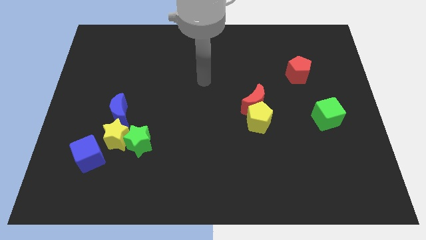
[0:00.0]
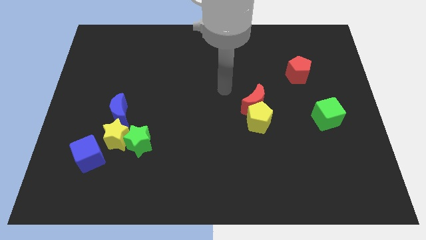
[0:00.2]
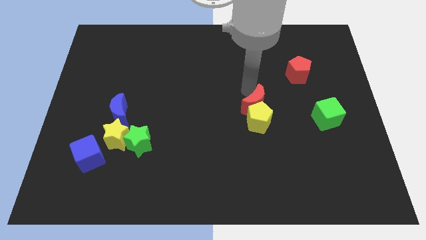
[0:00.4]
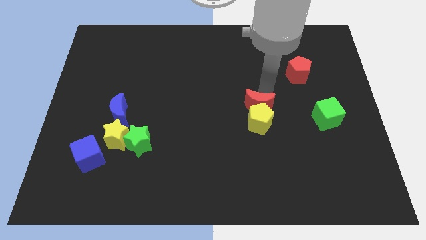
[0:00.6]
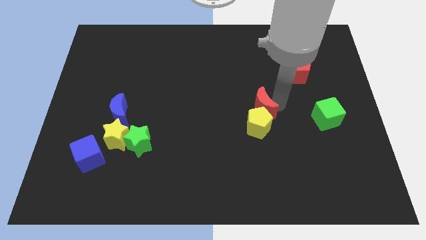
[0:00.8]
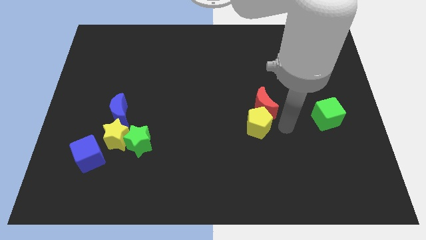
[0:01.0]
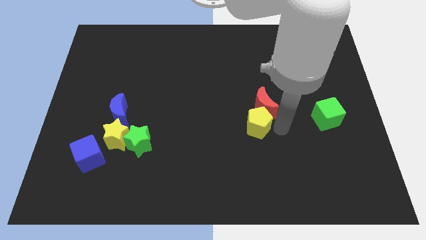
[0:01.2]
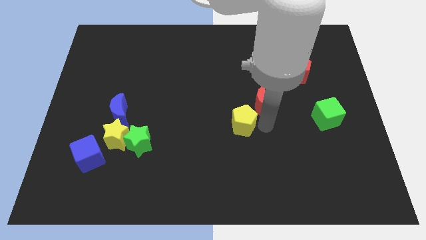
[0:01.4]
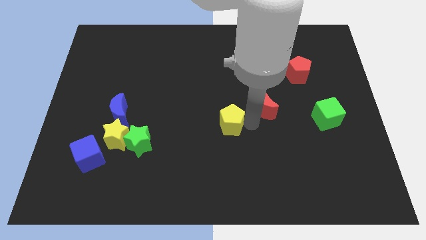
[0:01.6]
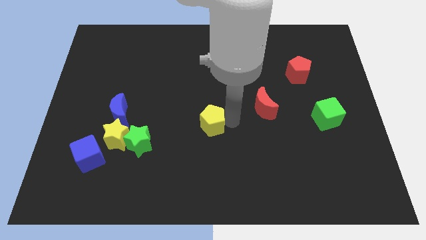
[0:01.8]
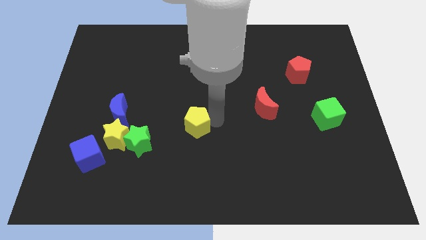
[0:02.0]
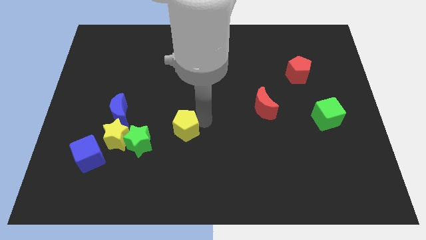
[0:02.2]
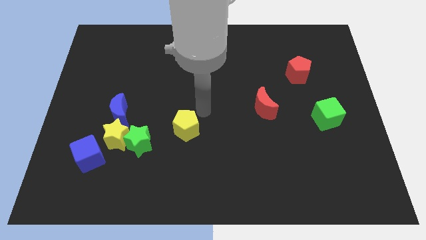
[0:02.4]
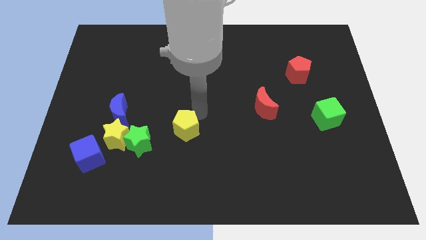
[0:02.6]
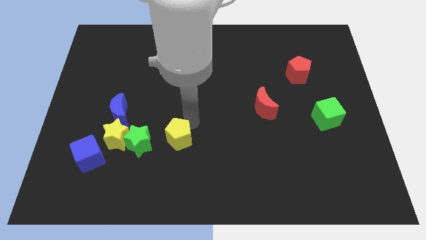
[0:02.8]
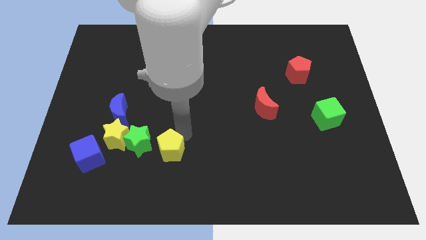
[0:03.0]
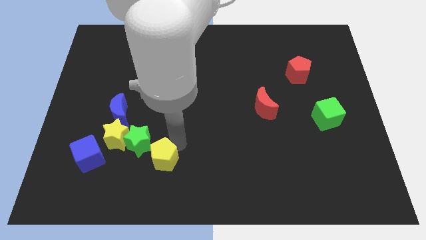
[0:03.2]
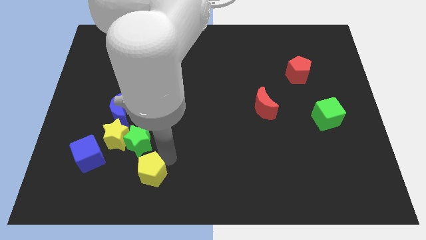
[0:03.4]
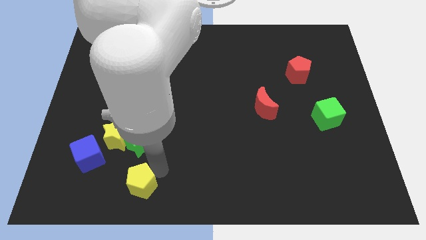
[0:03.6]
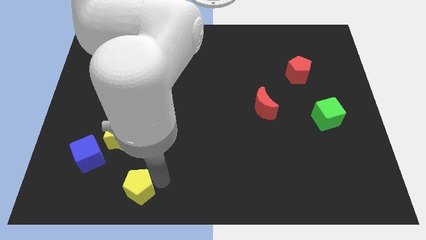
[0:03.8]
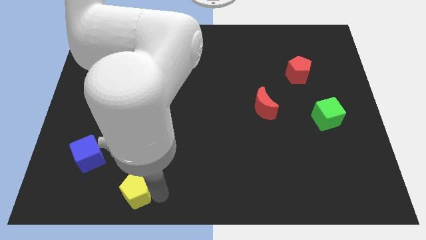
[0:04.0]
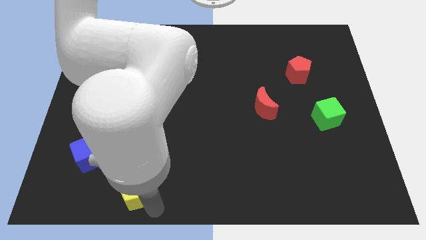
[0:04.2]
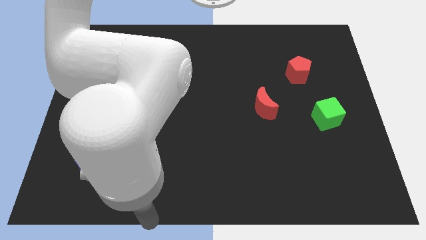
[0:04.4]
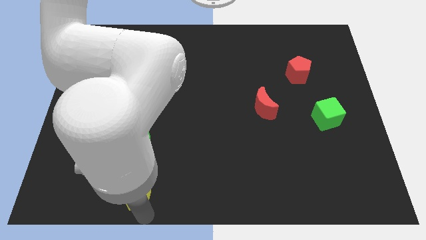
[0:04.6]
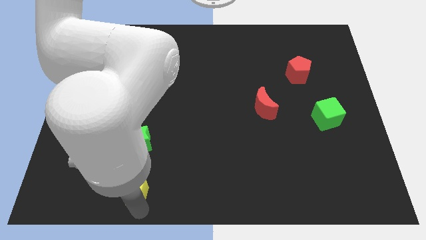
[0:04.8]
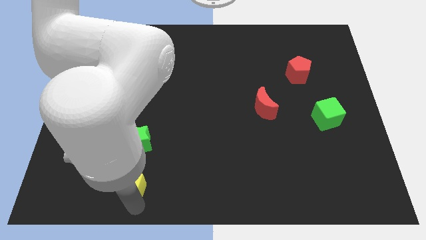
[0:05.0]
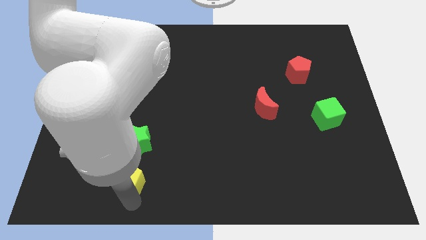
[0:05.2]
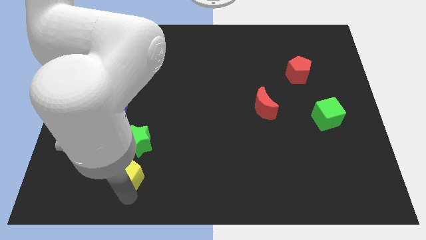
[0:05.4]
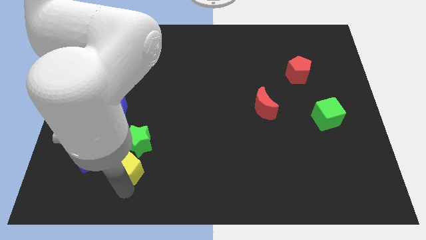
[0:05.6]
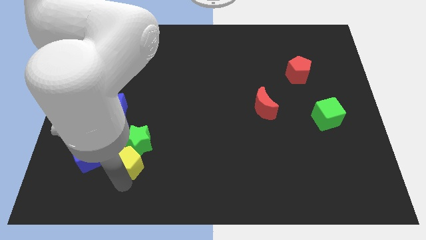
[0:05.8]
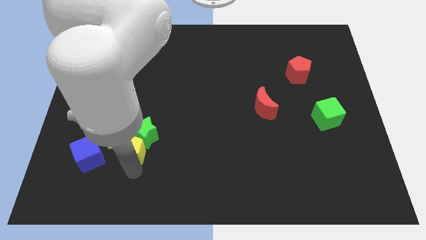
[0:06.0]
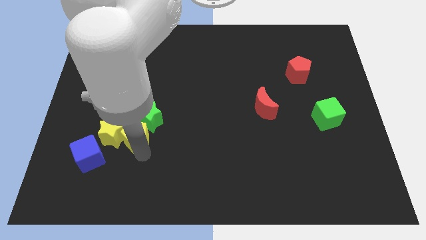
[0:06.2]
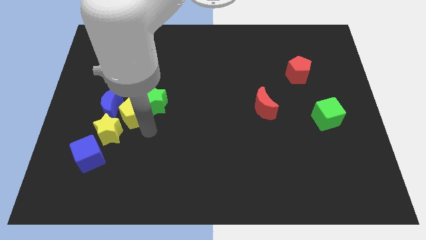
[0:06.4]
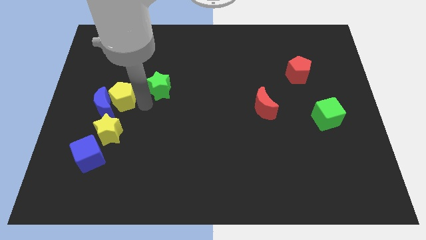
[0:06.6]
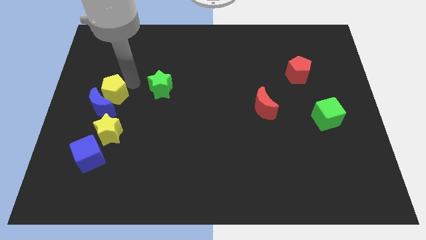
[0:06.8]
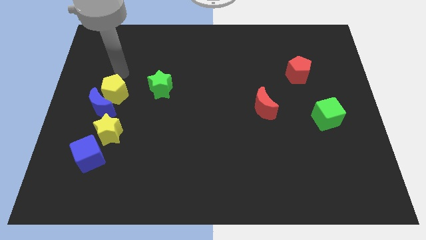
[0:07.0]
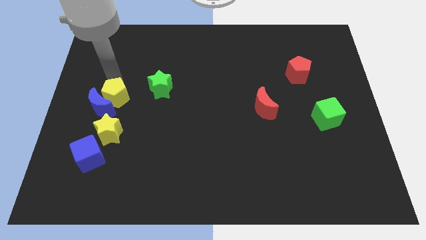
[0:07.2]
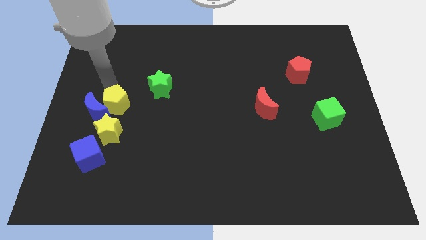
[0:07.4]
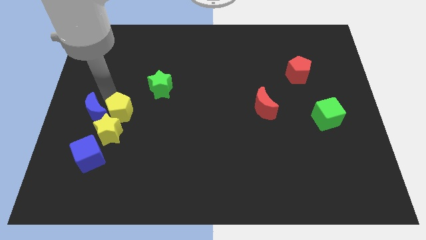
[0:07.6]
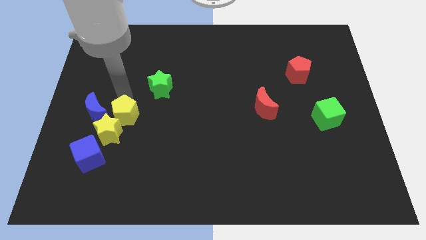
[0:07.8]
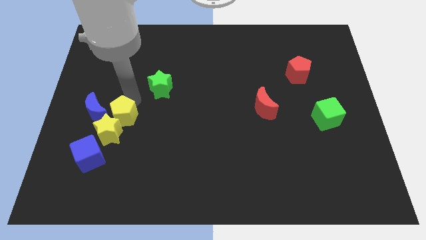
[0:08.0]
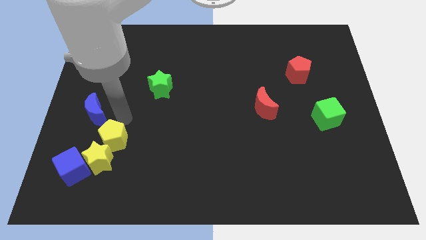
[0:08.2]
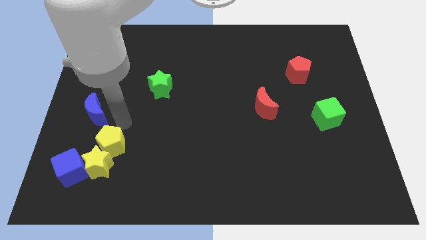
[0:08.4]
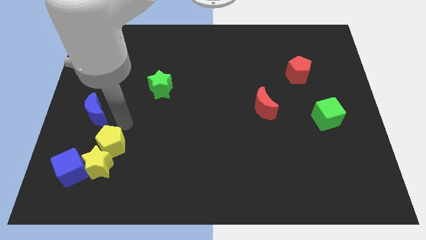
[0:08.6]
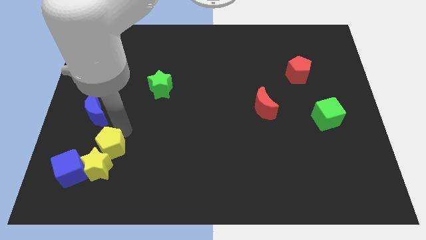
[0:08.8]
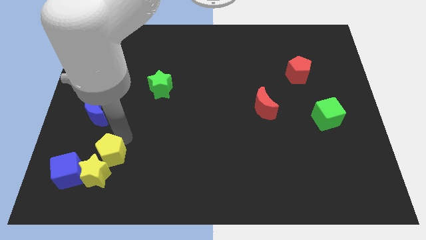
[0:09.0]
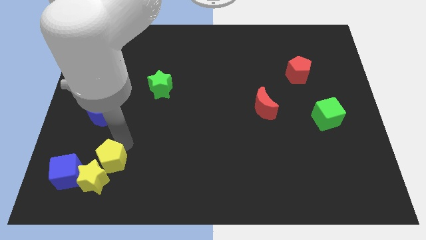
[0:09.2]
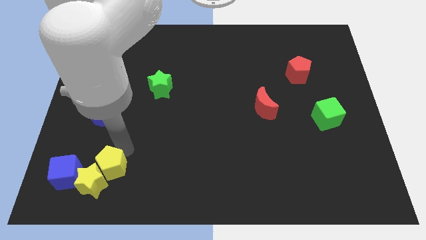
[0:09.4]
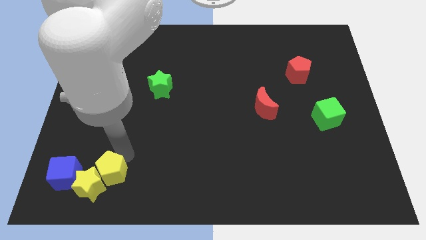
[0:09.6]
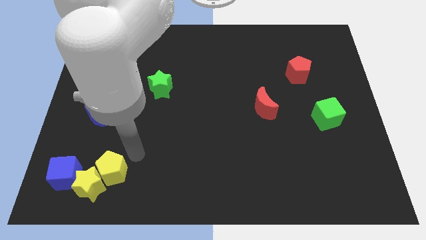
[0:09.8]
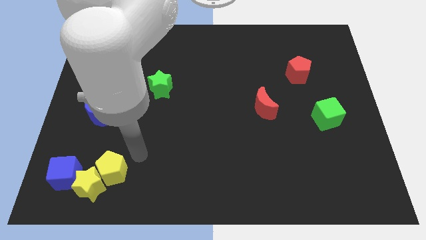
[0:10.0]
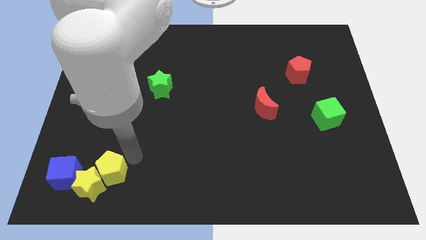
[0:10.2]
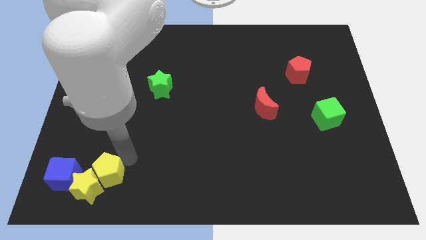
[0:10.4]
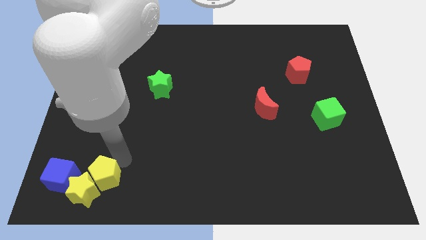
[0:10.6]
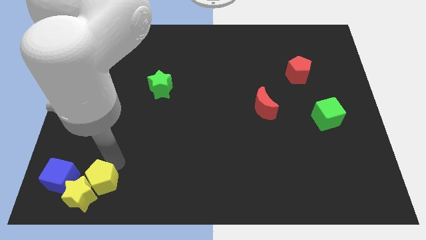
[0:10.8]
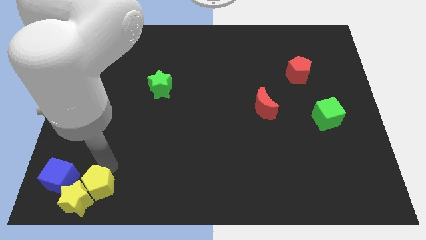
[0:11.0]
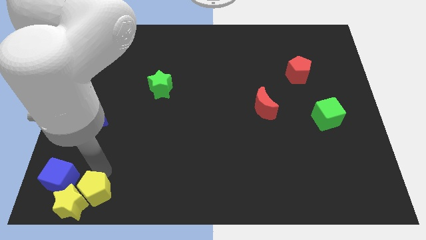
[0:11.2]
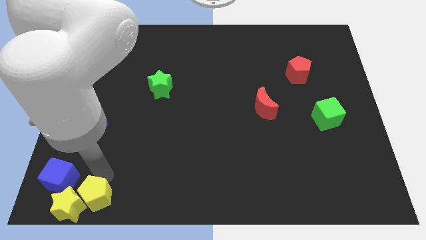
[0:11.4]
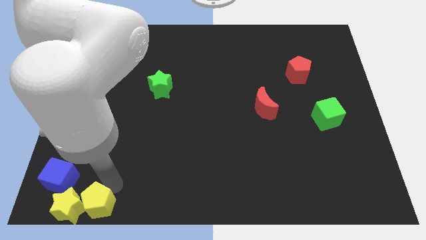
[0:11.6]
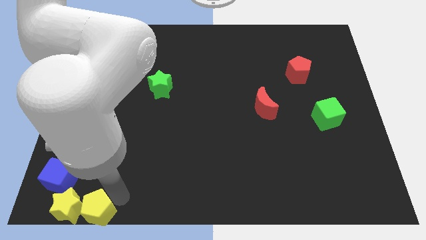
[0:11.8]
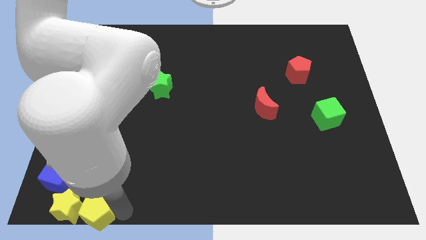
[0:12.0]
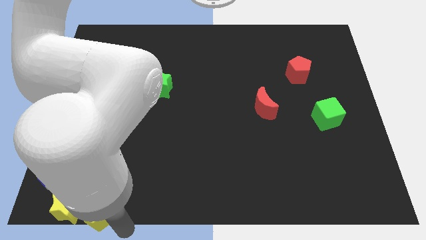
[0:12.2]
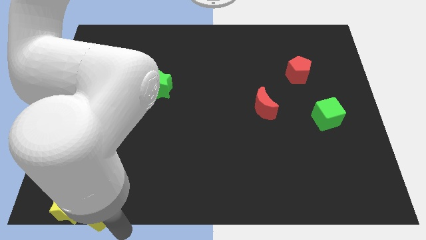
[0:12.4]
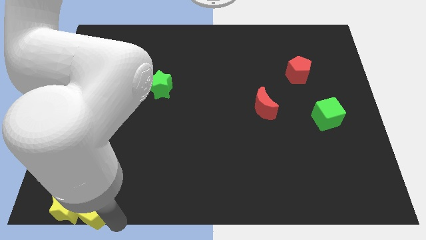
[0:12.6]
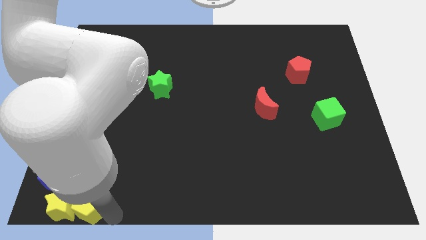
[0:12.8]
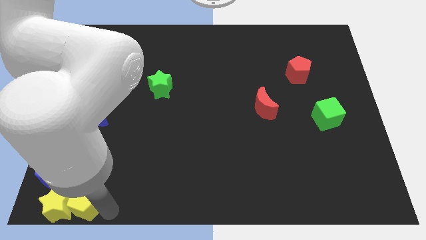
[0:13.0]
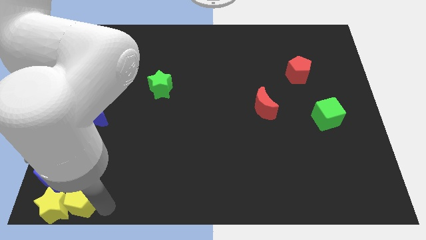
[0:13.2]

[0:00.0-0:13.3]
move the yellow pentagon to the bottom left corner

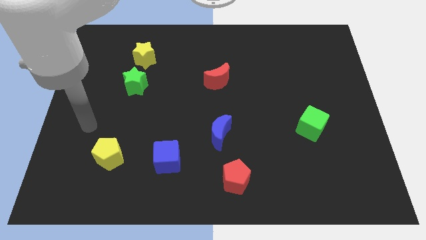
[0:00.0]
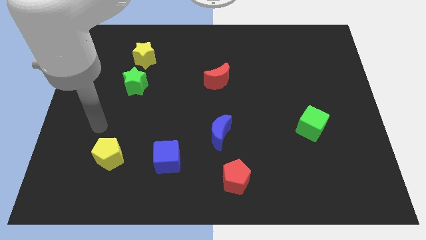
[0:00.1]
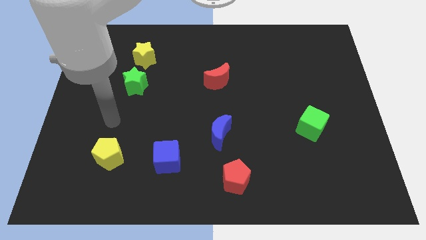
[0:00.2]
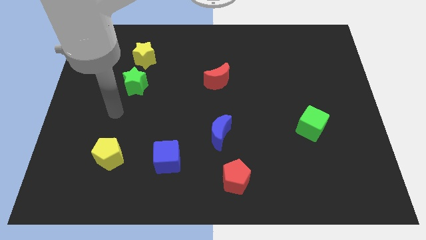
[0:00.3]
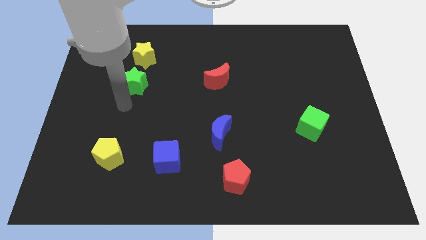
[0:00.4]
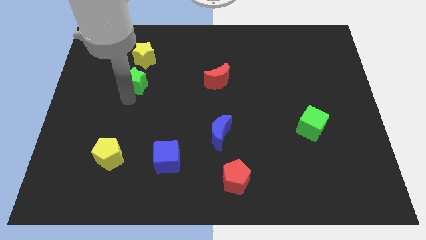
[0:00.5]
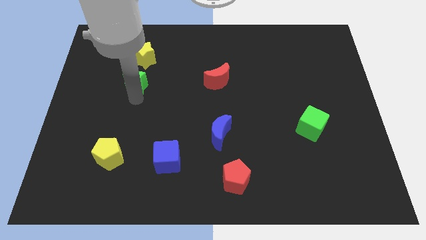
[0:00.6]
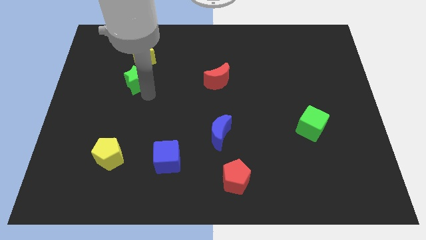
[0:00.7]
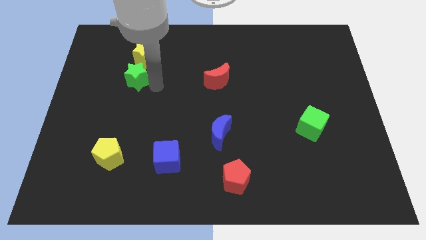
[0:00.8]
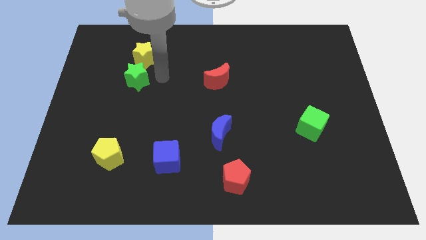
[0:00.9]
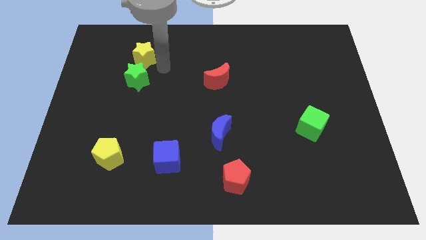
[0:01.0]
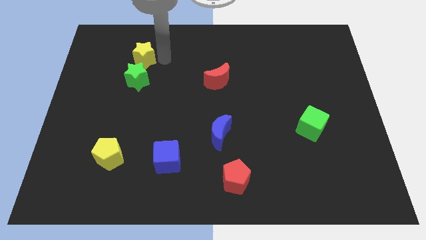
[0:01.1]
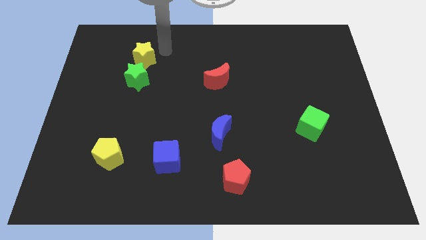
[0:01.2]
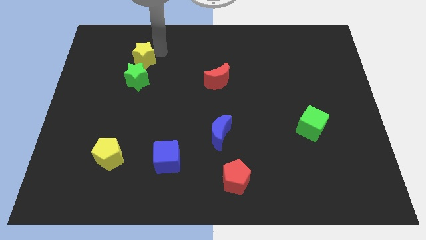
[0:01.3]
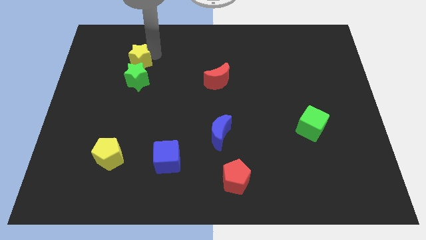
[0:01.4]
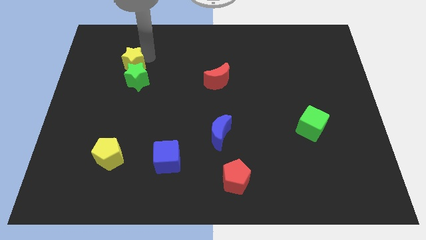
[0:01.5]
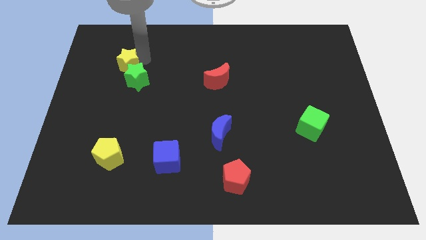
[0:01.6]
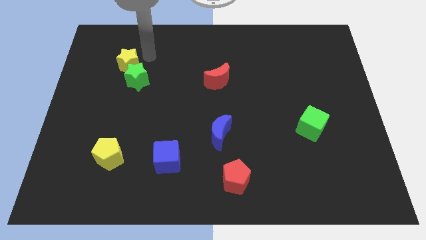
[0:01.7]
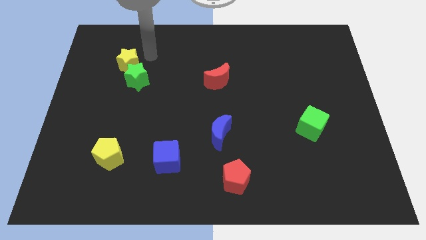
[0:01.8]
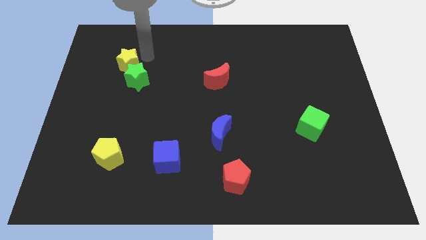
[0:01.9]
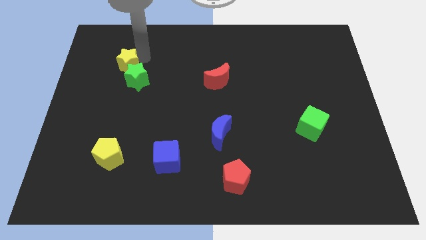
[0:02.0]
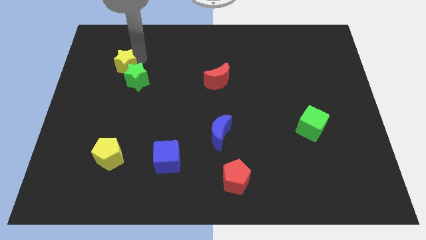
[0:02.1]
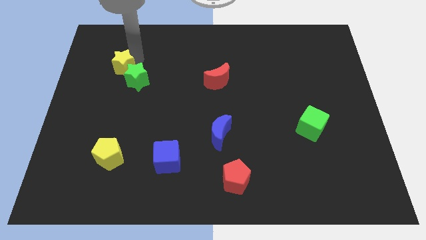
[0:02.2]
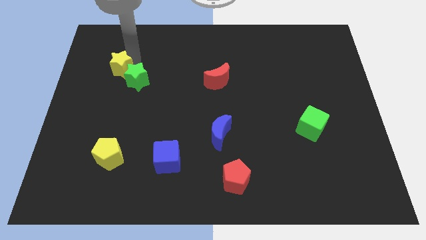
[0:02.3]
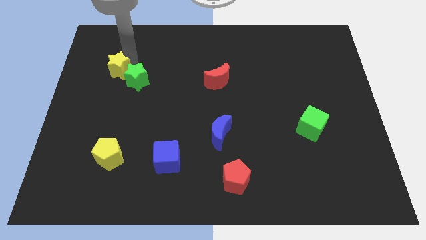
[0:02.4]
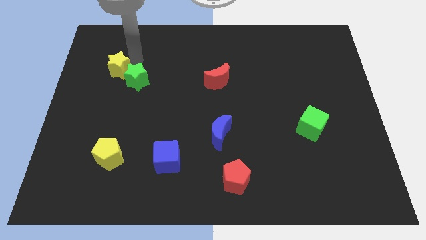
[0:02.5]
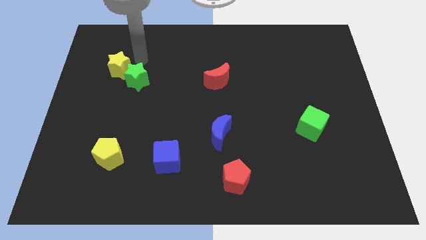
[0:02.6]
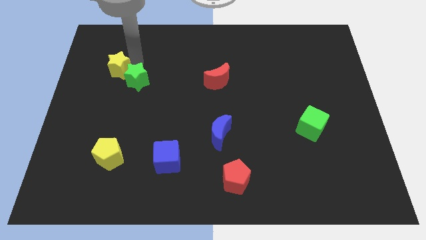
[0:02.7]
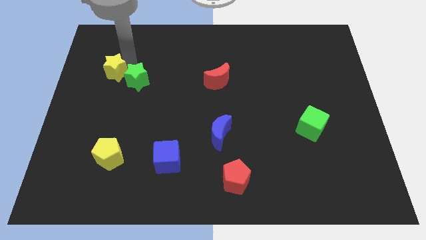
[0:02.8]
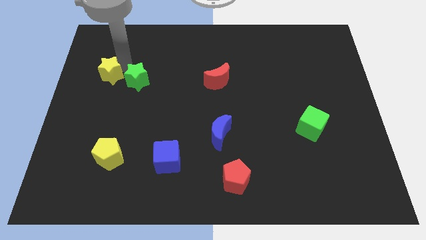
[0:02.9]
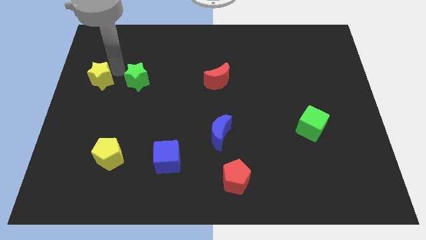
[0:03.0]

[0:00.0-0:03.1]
slide the yellow star to the left side of the board
